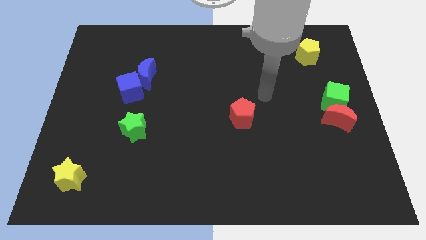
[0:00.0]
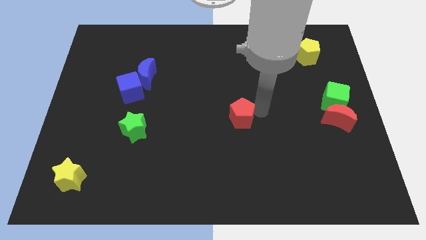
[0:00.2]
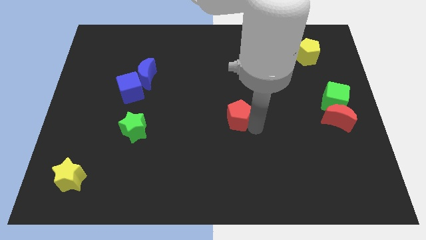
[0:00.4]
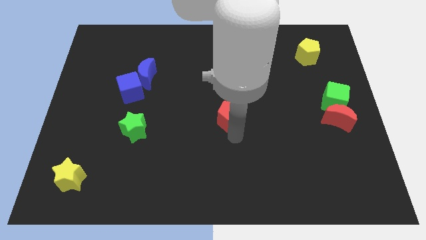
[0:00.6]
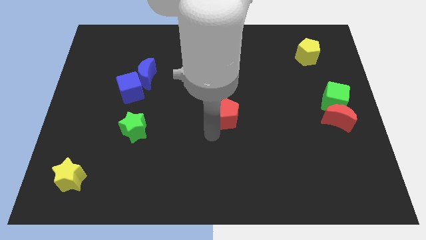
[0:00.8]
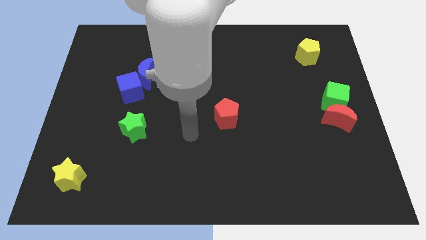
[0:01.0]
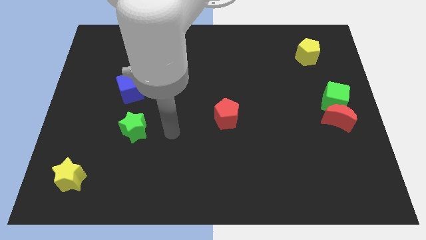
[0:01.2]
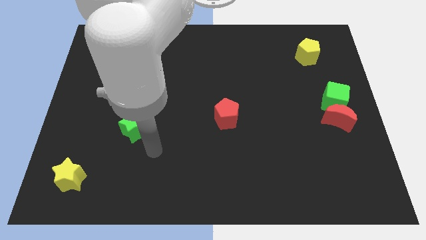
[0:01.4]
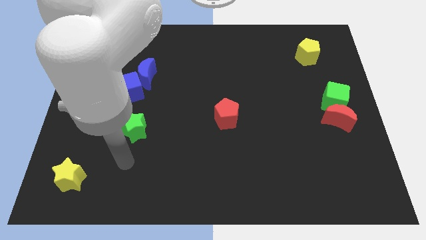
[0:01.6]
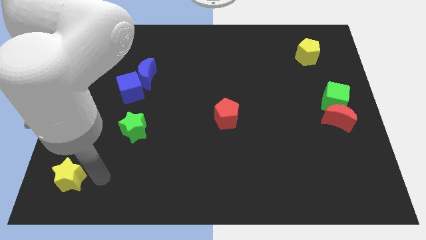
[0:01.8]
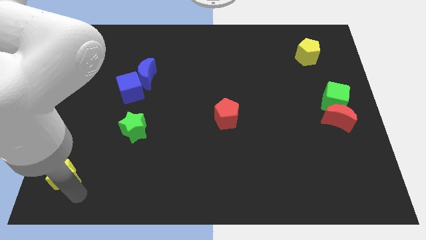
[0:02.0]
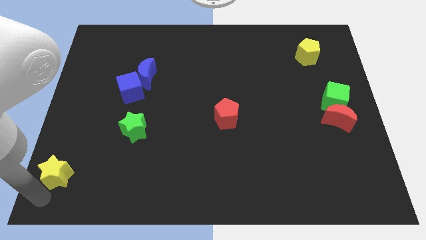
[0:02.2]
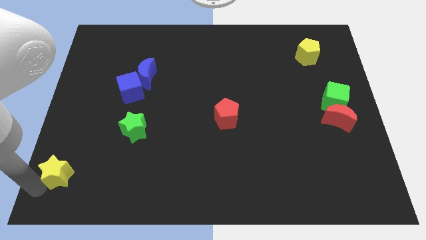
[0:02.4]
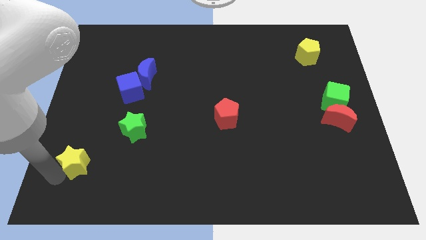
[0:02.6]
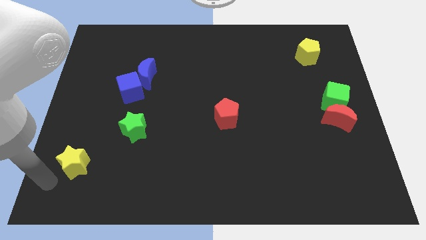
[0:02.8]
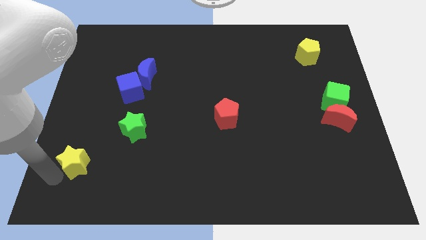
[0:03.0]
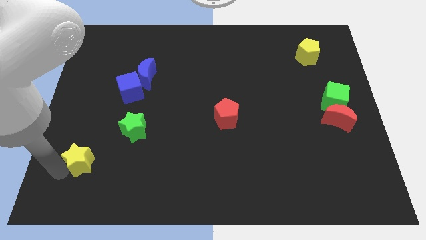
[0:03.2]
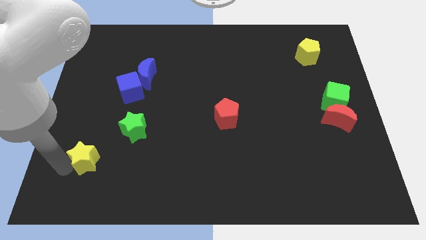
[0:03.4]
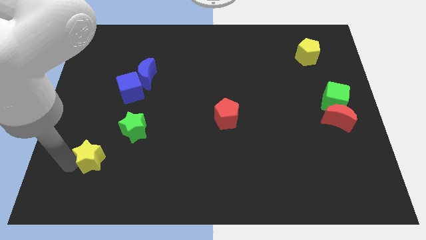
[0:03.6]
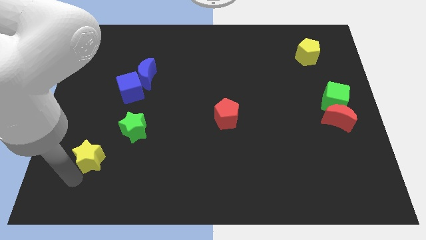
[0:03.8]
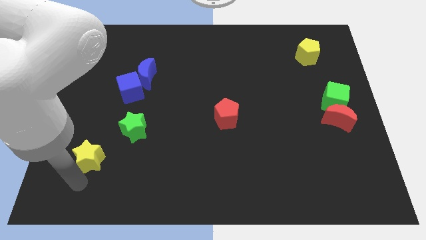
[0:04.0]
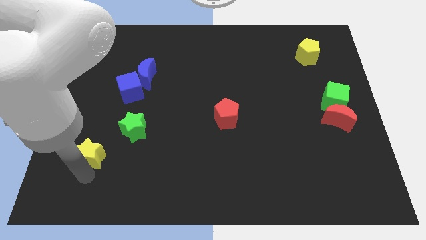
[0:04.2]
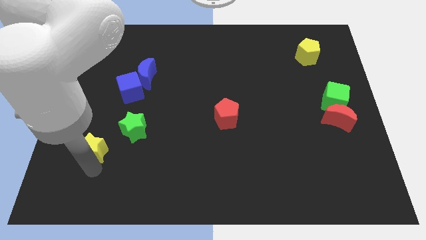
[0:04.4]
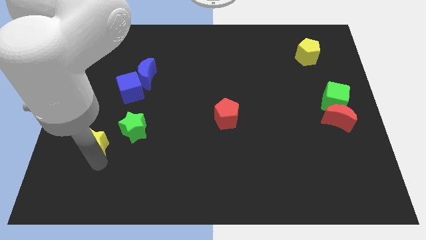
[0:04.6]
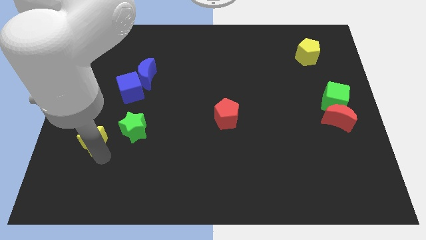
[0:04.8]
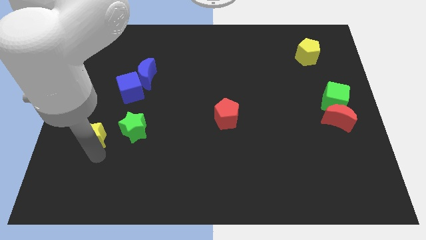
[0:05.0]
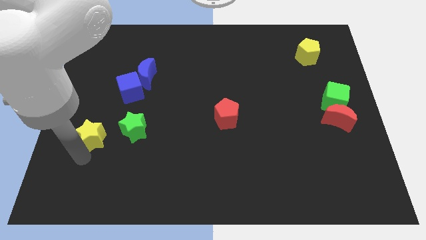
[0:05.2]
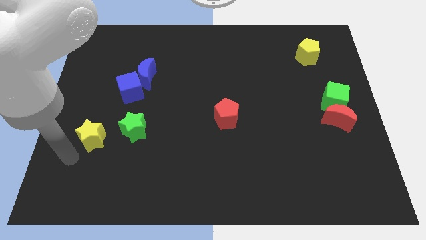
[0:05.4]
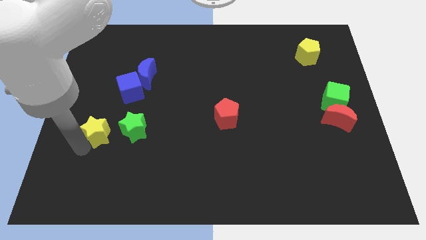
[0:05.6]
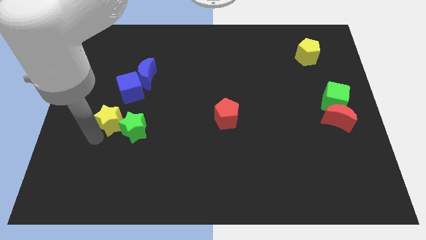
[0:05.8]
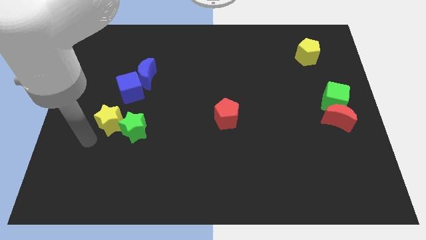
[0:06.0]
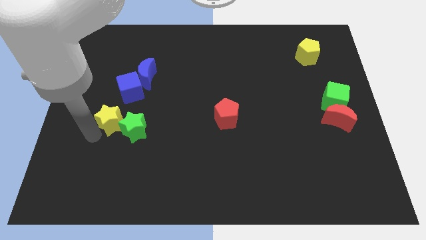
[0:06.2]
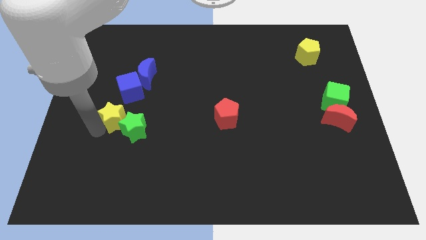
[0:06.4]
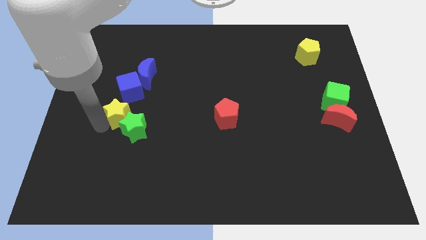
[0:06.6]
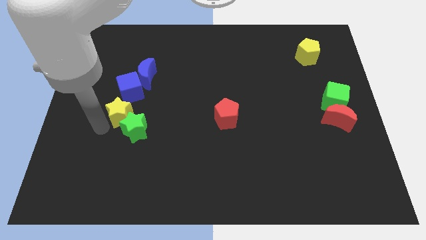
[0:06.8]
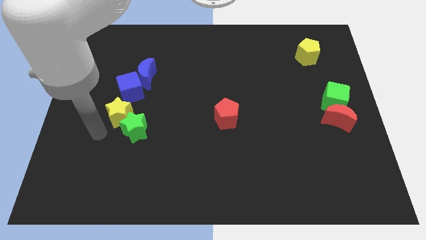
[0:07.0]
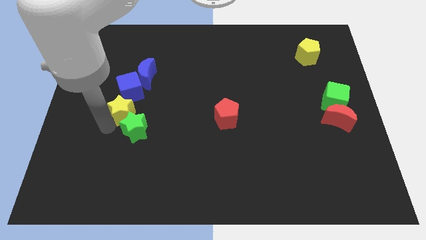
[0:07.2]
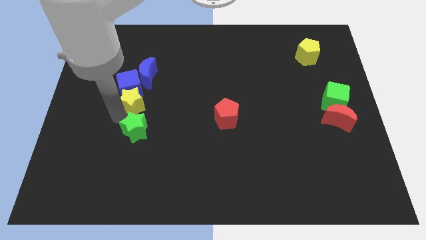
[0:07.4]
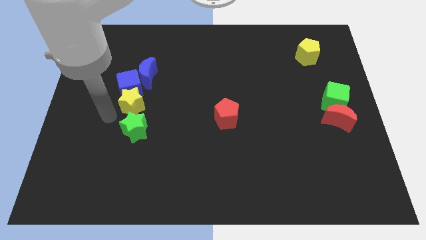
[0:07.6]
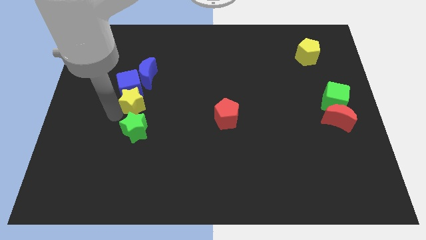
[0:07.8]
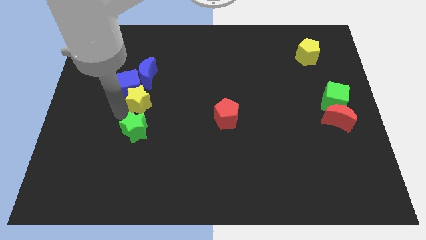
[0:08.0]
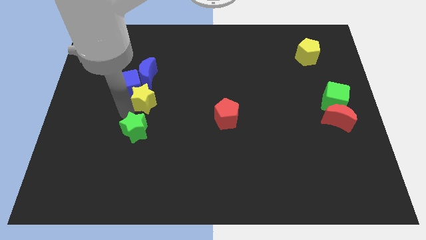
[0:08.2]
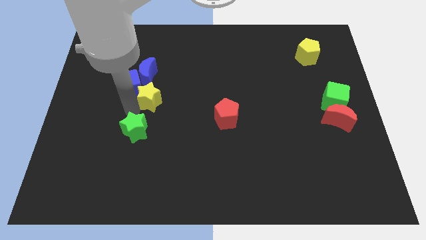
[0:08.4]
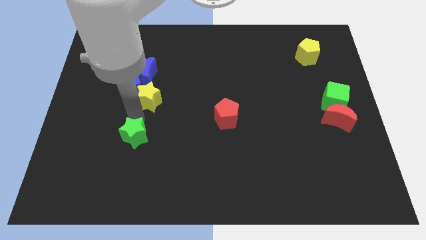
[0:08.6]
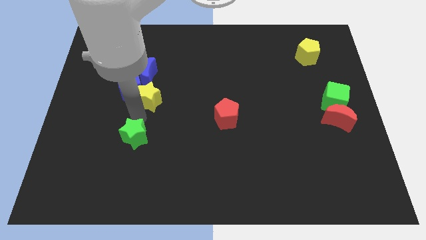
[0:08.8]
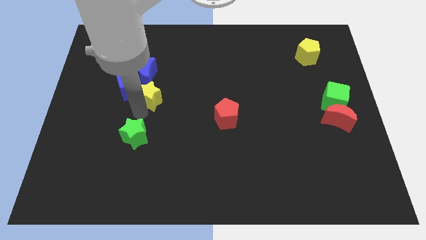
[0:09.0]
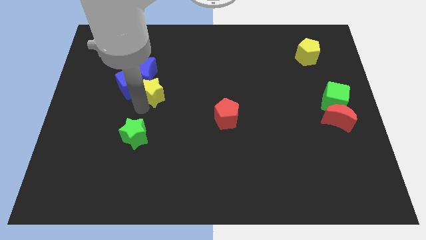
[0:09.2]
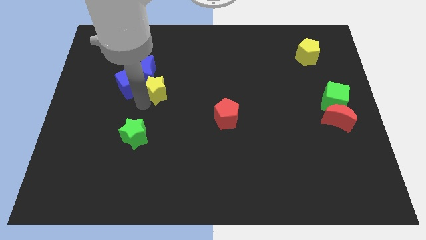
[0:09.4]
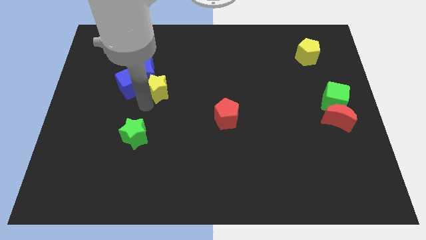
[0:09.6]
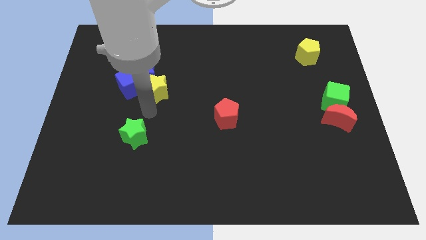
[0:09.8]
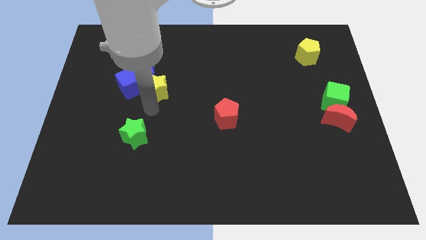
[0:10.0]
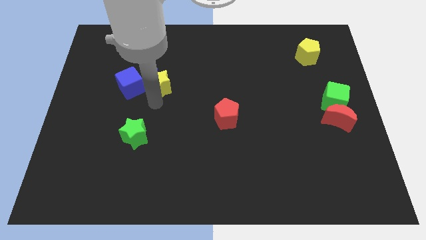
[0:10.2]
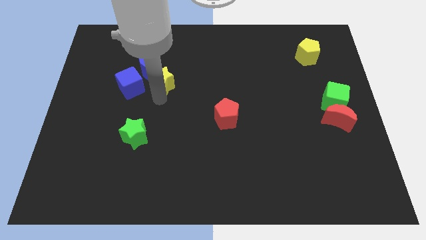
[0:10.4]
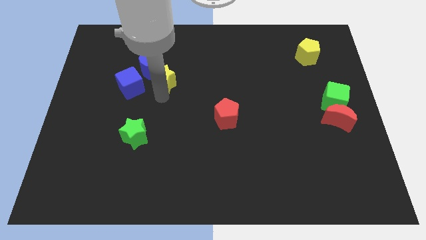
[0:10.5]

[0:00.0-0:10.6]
move the yellow star to the top right side of the blue cube

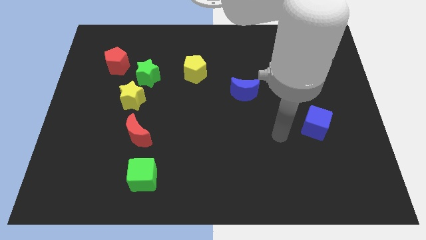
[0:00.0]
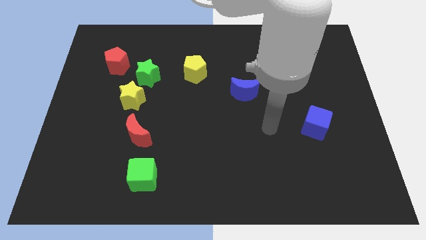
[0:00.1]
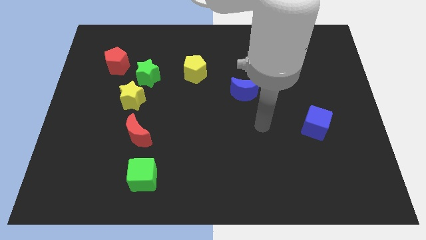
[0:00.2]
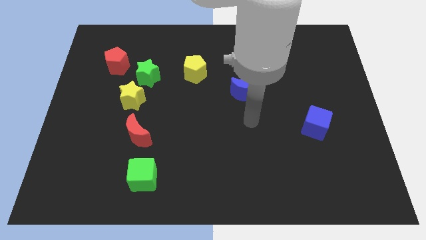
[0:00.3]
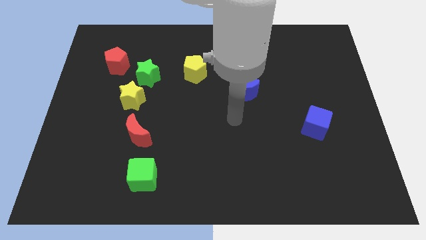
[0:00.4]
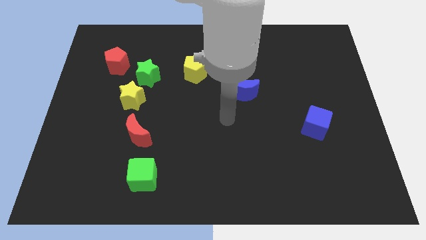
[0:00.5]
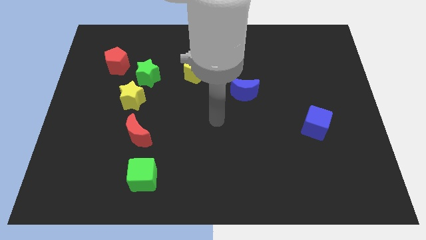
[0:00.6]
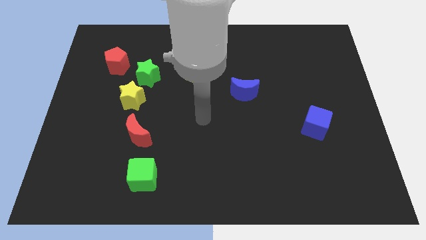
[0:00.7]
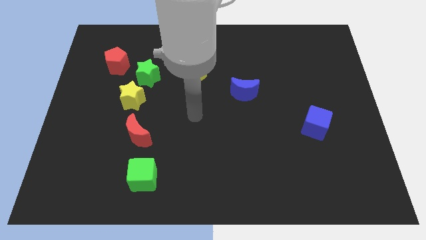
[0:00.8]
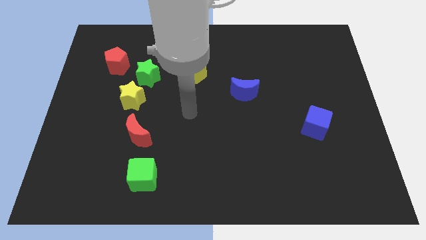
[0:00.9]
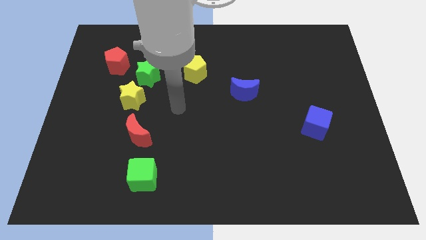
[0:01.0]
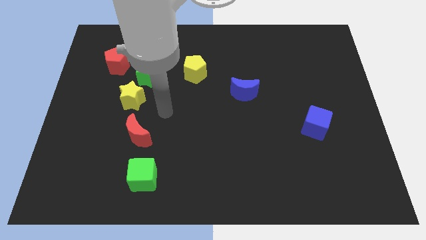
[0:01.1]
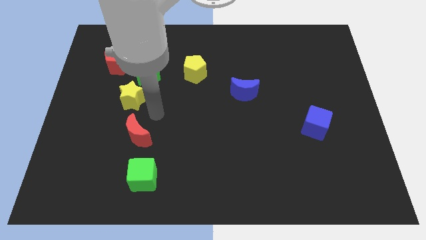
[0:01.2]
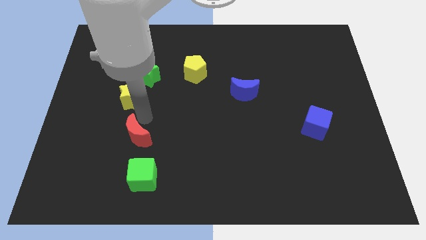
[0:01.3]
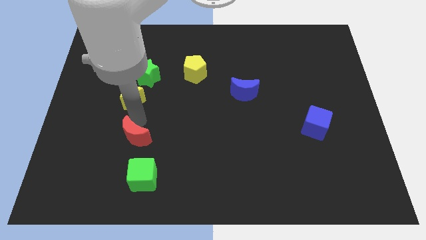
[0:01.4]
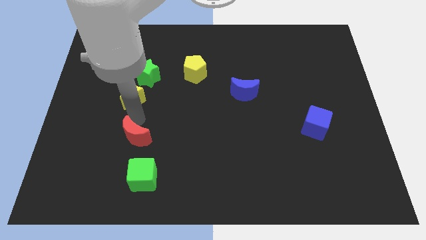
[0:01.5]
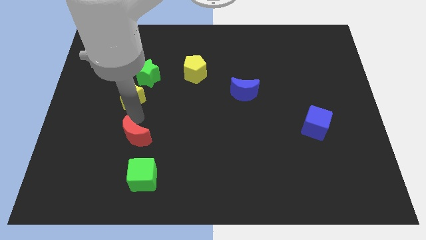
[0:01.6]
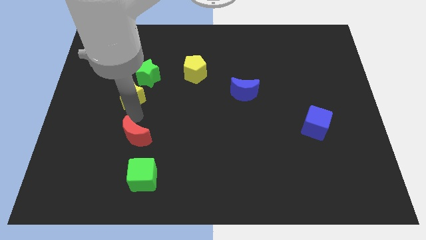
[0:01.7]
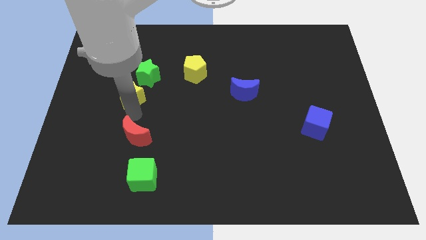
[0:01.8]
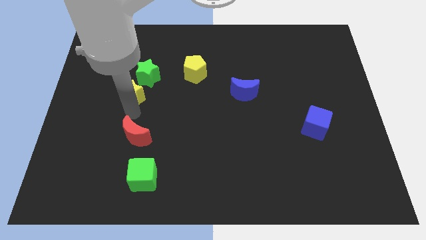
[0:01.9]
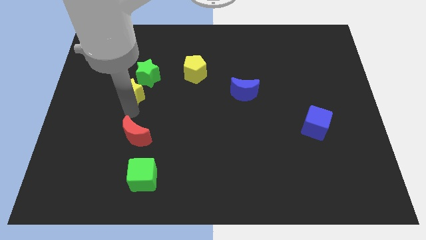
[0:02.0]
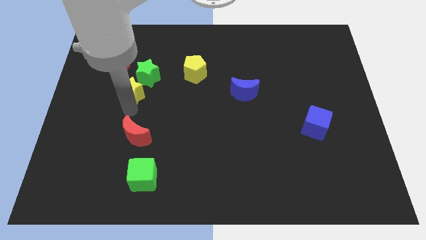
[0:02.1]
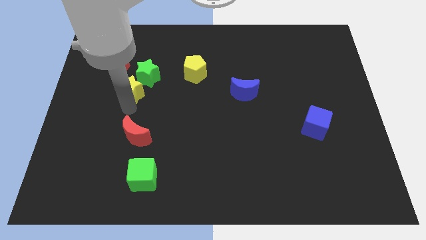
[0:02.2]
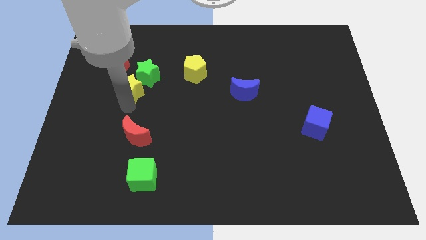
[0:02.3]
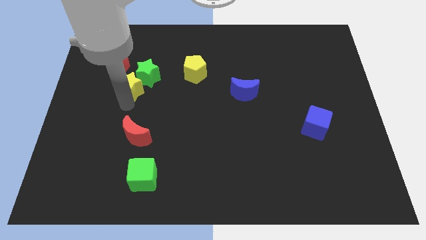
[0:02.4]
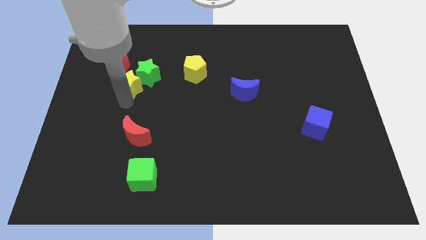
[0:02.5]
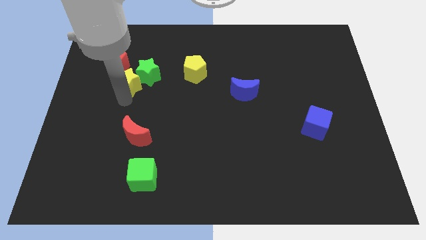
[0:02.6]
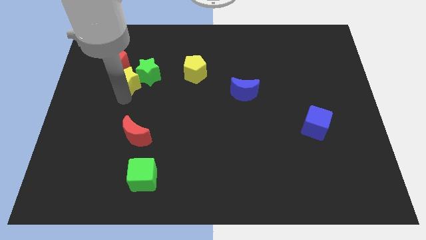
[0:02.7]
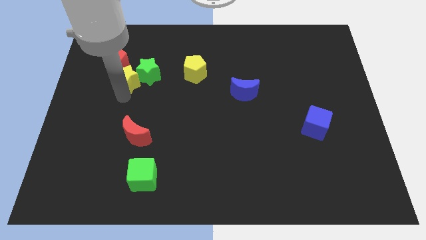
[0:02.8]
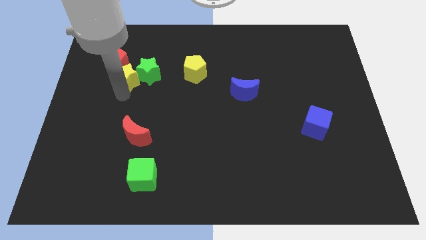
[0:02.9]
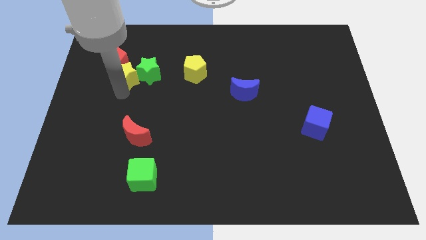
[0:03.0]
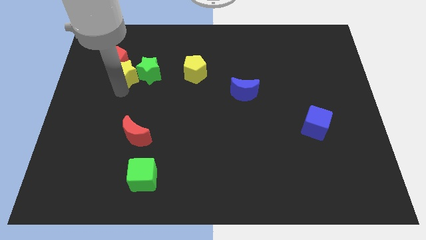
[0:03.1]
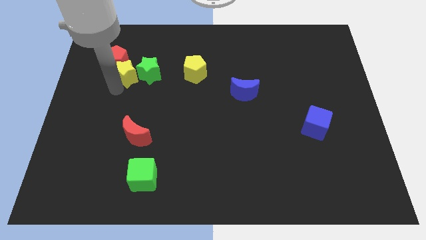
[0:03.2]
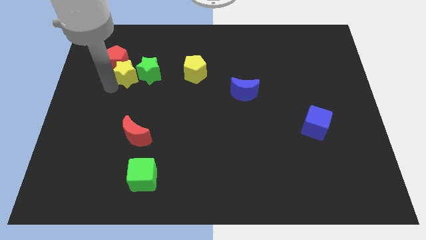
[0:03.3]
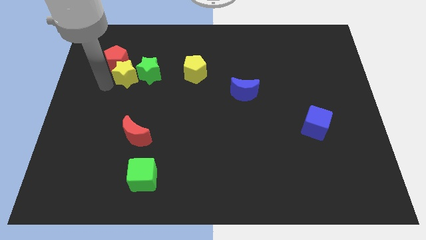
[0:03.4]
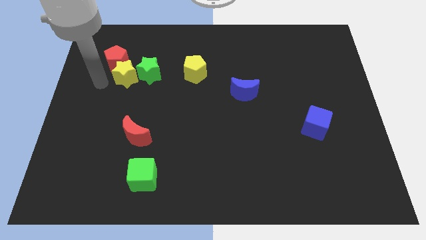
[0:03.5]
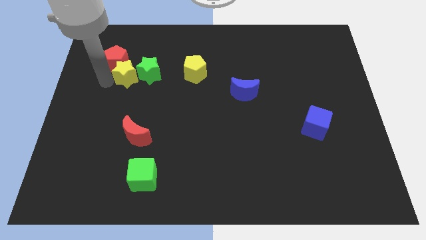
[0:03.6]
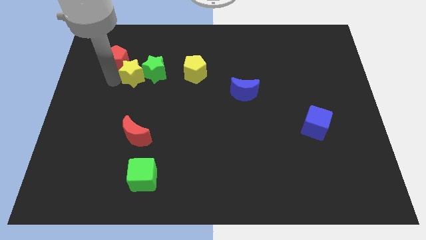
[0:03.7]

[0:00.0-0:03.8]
put the yellow star left of the yellow pentagon
